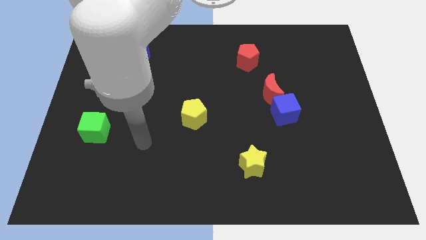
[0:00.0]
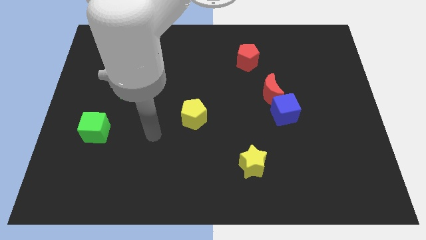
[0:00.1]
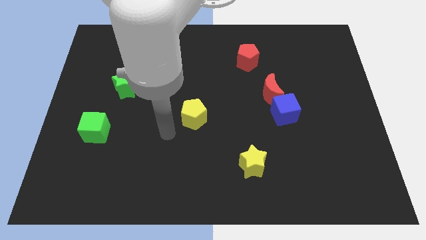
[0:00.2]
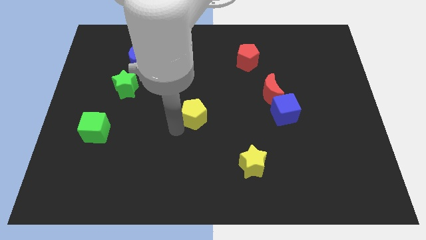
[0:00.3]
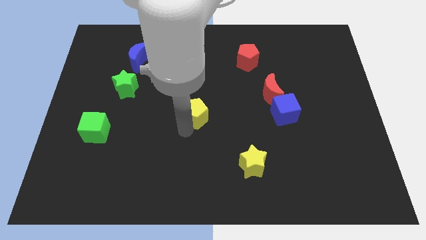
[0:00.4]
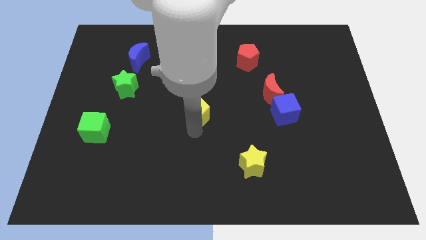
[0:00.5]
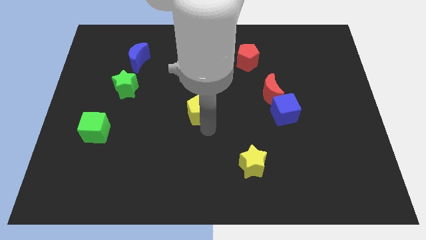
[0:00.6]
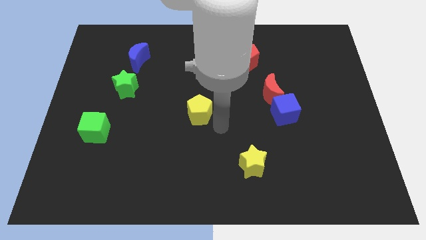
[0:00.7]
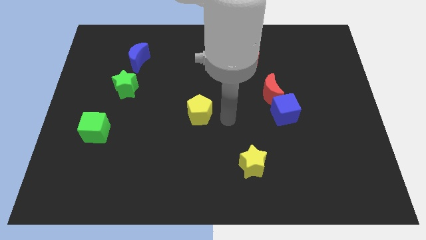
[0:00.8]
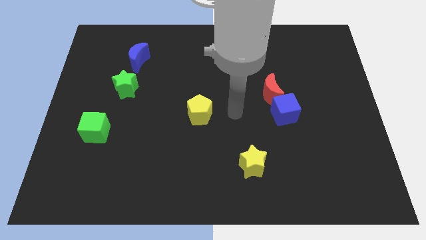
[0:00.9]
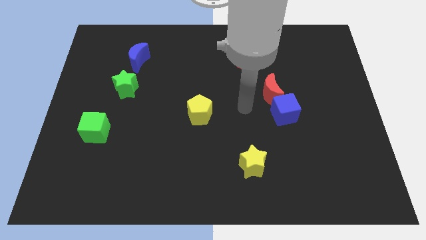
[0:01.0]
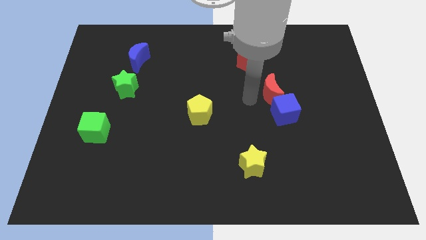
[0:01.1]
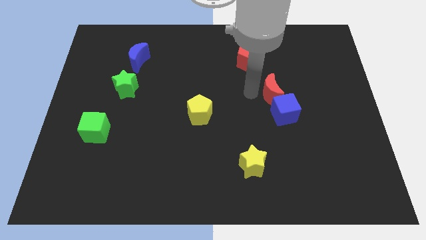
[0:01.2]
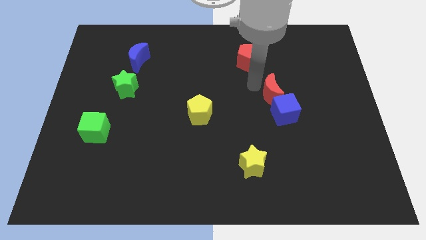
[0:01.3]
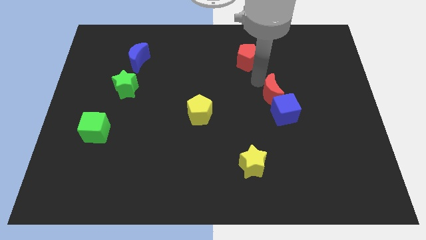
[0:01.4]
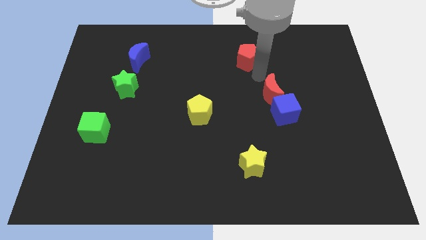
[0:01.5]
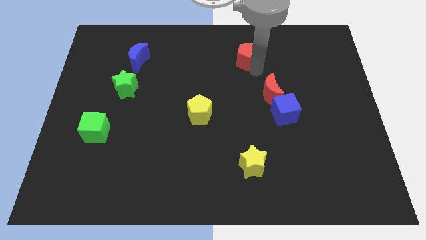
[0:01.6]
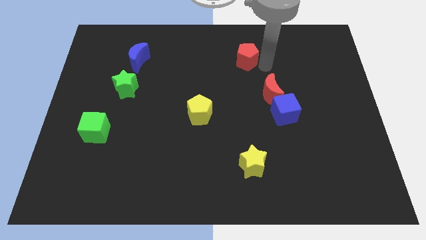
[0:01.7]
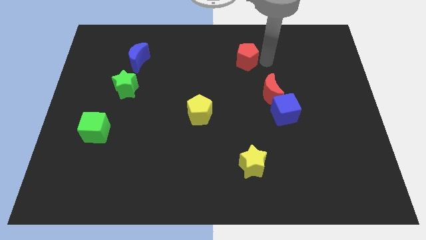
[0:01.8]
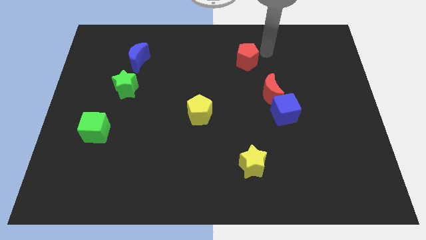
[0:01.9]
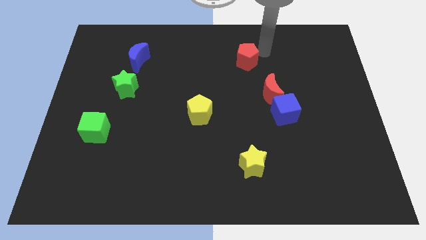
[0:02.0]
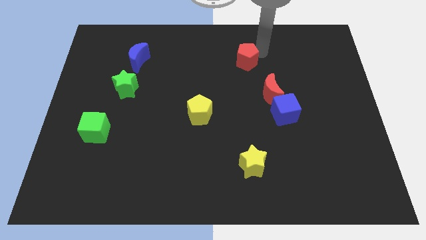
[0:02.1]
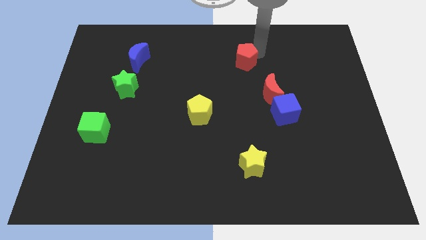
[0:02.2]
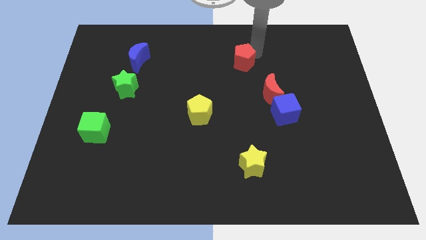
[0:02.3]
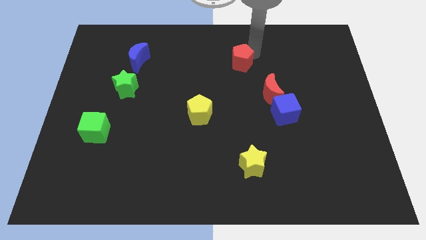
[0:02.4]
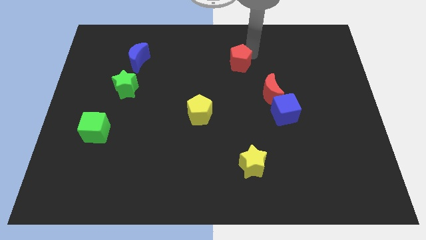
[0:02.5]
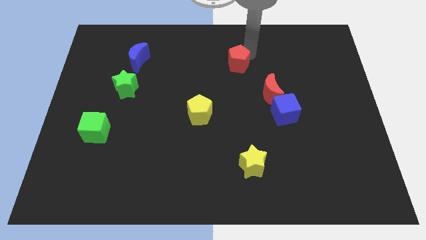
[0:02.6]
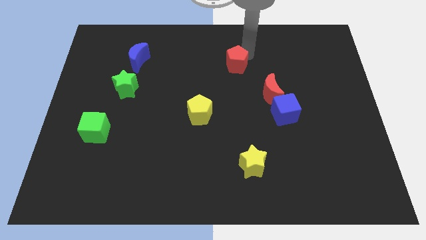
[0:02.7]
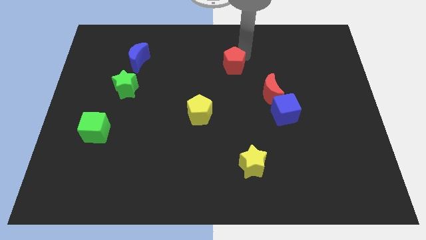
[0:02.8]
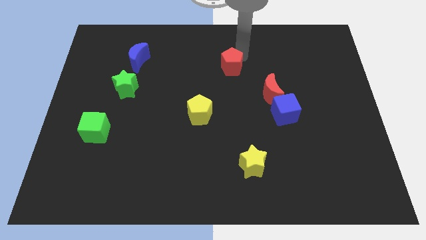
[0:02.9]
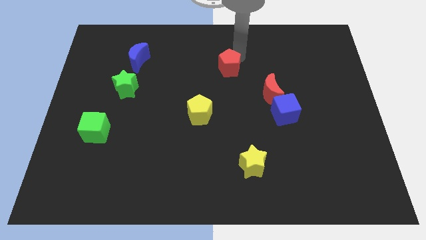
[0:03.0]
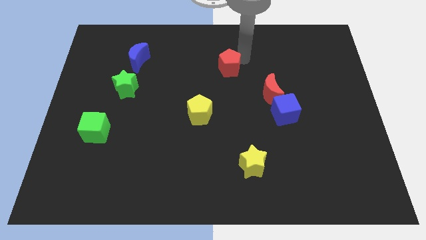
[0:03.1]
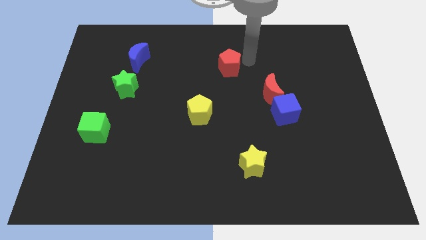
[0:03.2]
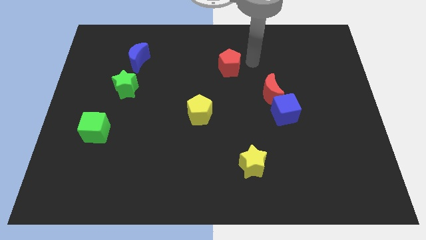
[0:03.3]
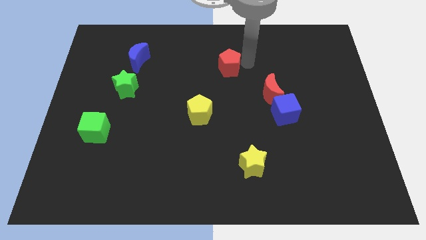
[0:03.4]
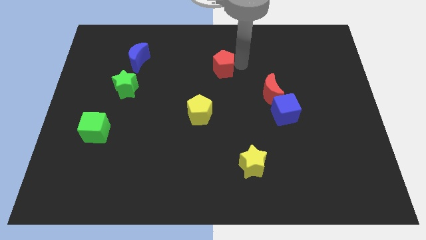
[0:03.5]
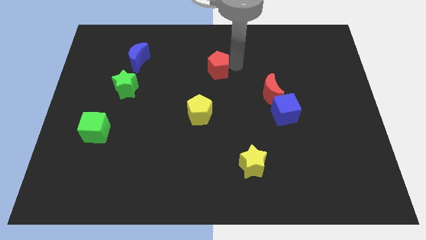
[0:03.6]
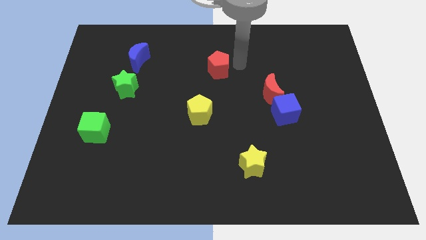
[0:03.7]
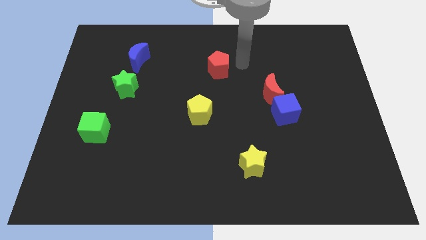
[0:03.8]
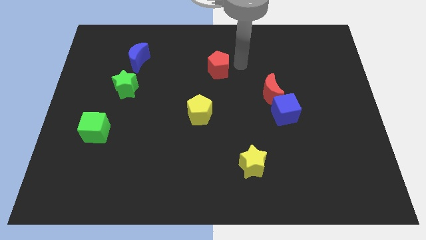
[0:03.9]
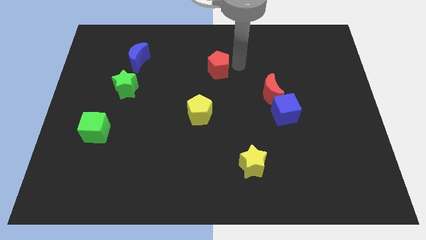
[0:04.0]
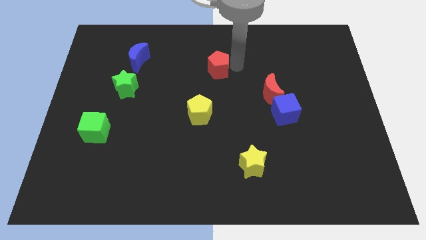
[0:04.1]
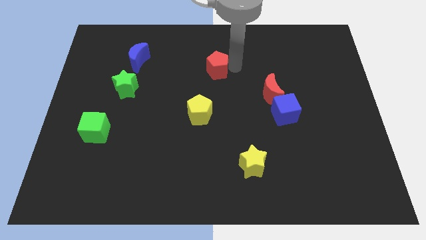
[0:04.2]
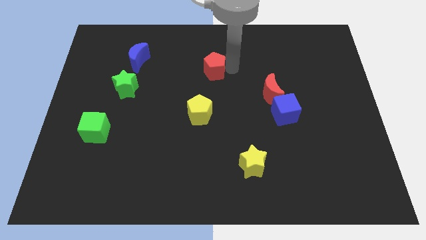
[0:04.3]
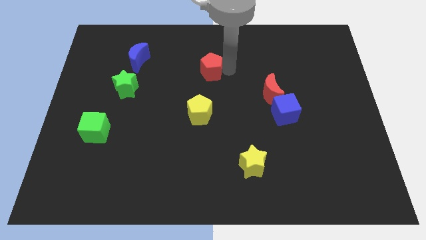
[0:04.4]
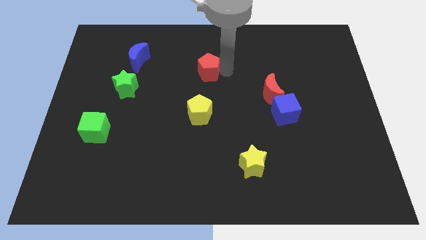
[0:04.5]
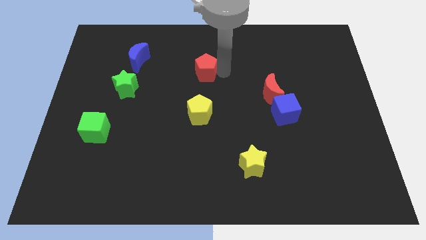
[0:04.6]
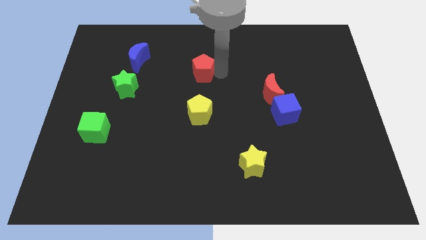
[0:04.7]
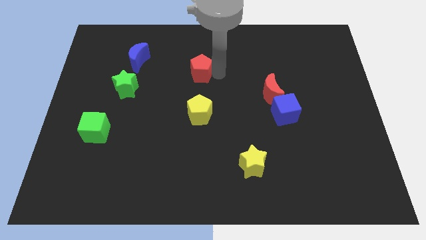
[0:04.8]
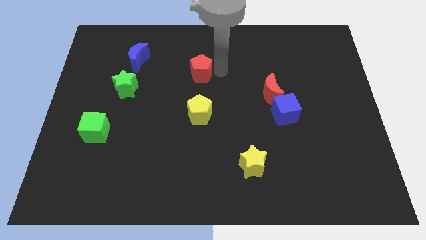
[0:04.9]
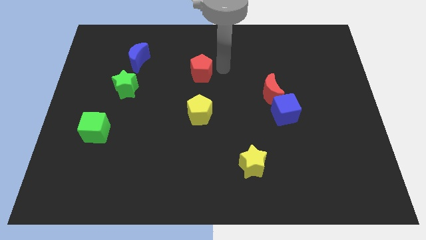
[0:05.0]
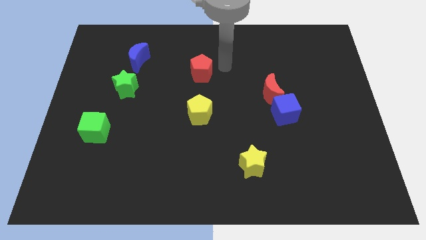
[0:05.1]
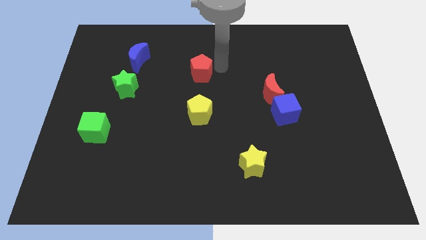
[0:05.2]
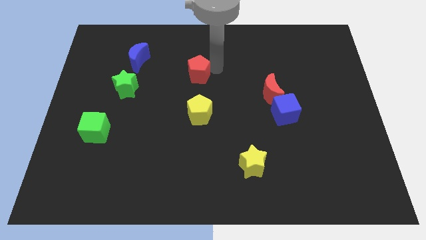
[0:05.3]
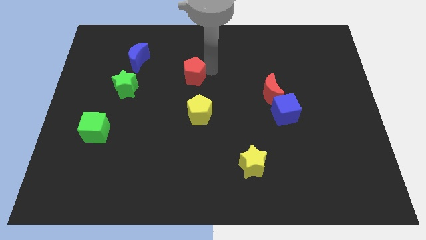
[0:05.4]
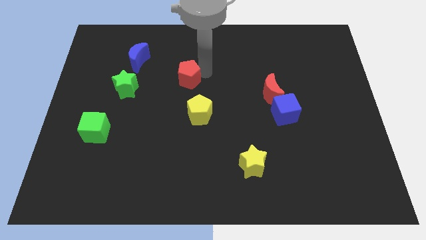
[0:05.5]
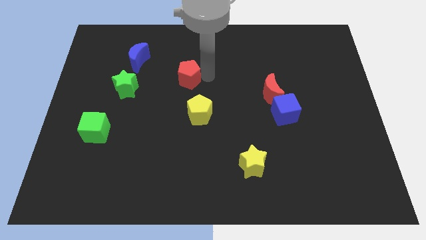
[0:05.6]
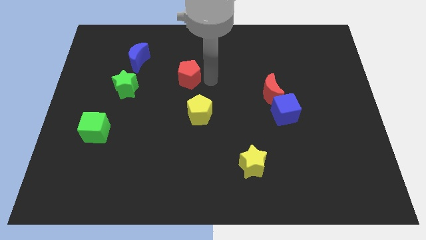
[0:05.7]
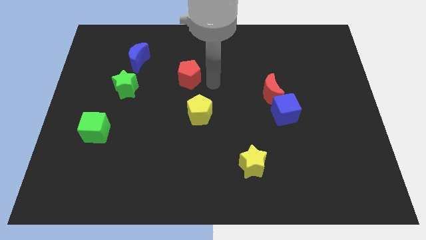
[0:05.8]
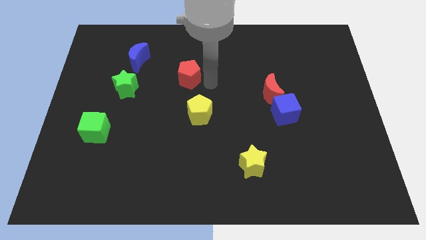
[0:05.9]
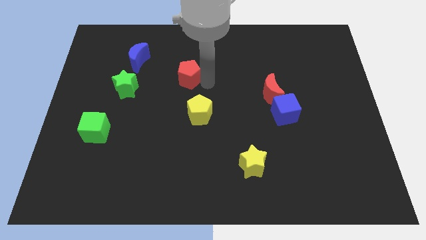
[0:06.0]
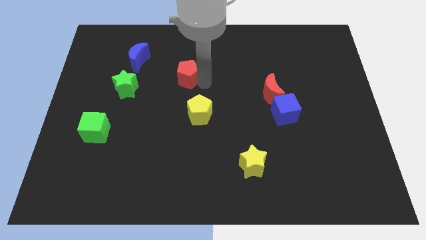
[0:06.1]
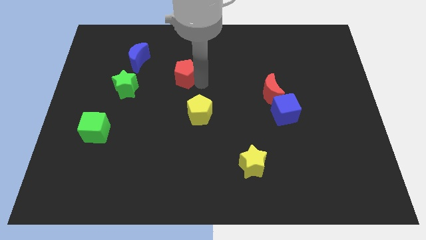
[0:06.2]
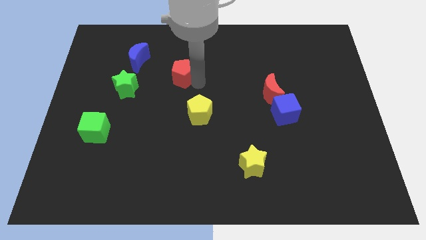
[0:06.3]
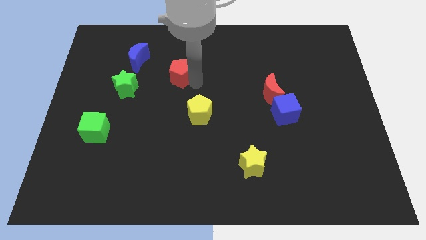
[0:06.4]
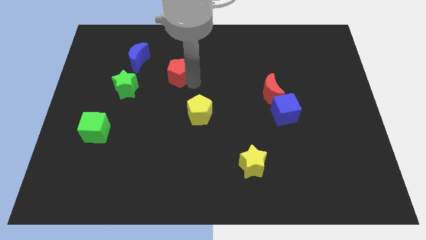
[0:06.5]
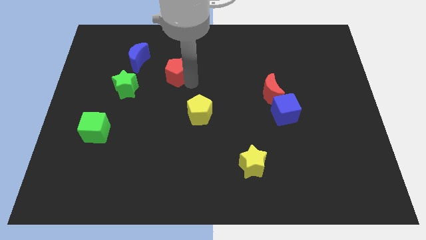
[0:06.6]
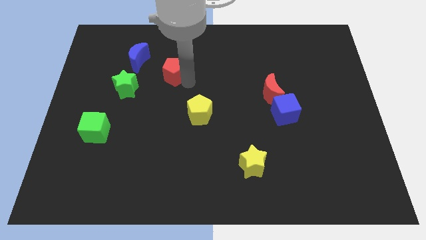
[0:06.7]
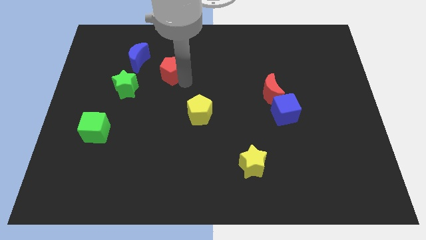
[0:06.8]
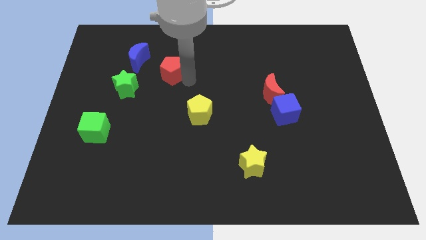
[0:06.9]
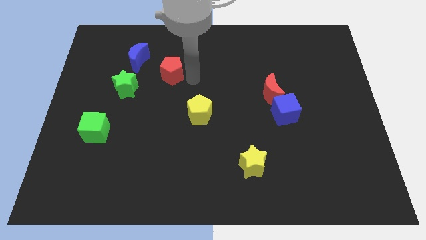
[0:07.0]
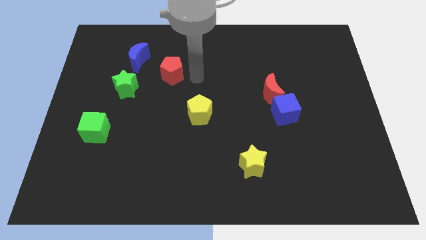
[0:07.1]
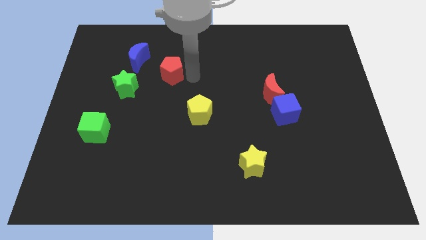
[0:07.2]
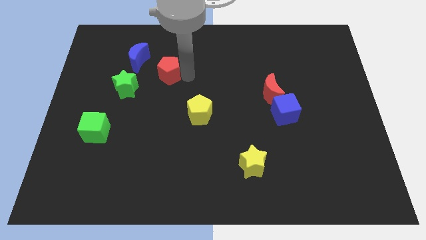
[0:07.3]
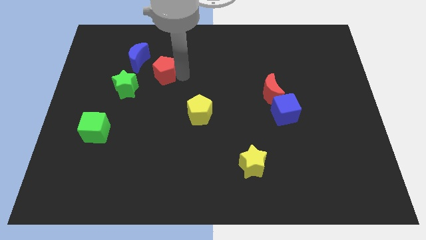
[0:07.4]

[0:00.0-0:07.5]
slide the red pentagon to the left

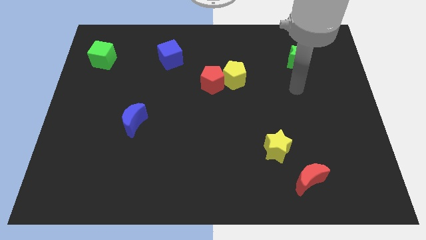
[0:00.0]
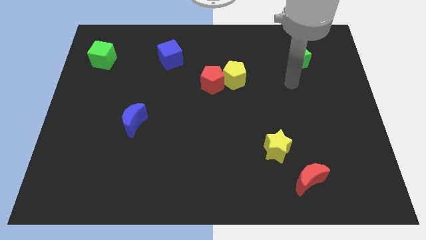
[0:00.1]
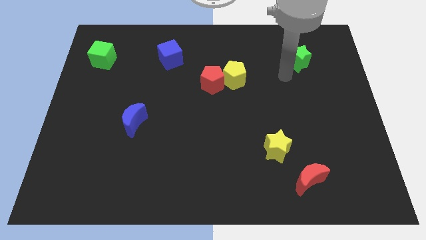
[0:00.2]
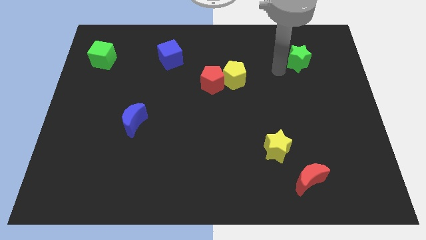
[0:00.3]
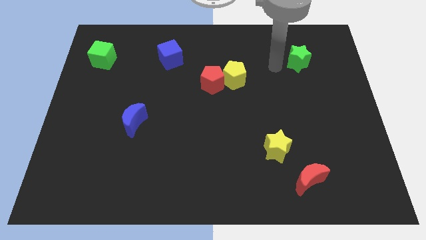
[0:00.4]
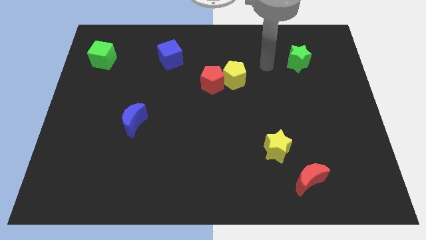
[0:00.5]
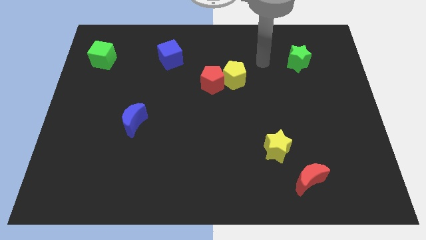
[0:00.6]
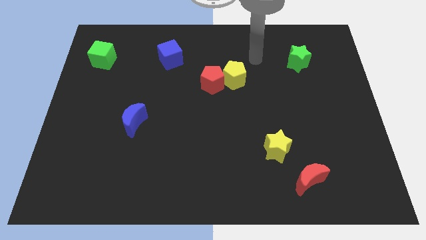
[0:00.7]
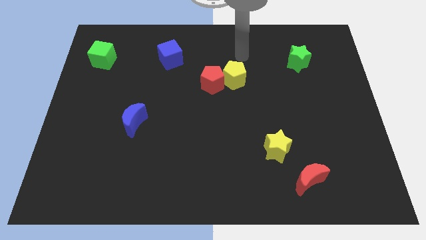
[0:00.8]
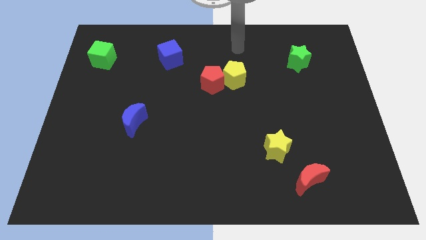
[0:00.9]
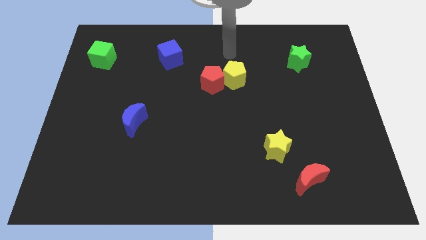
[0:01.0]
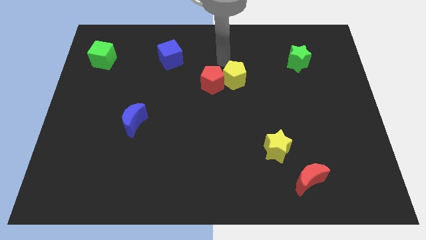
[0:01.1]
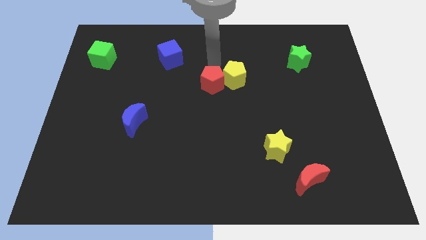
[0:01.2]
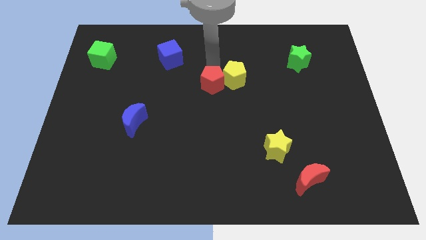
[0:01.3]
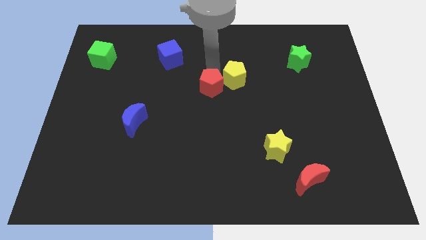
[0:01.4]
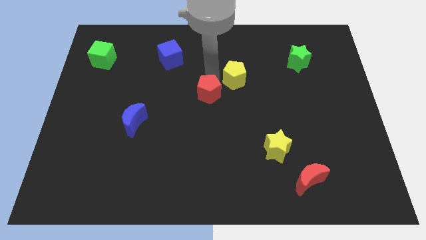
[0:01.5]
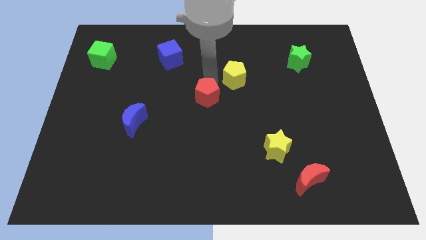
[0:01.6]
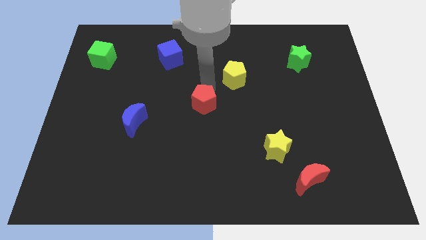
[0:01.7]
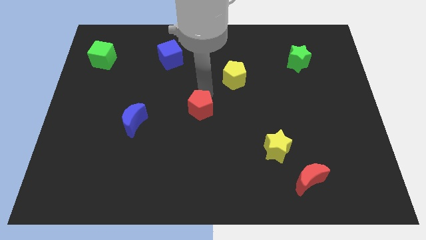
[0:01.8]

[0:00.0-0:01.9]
slightly slide the red pentagon downwards
